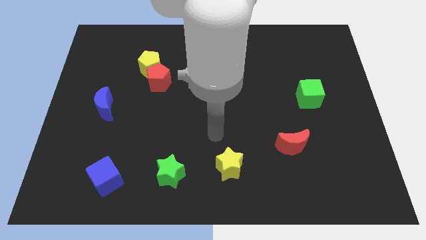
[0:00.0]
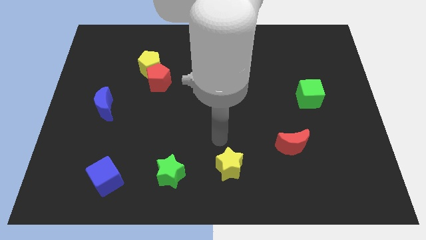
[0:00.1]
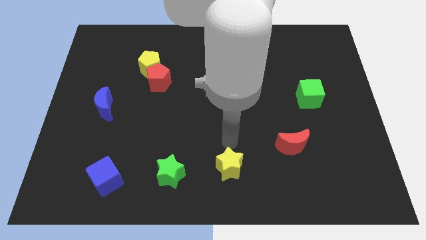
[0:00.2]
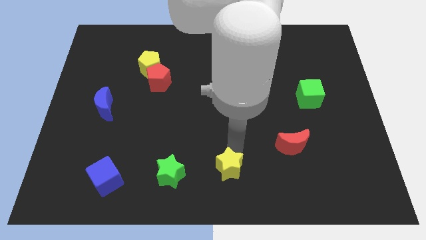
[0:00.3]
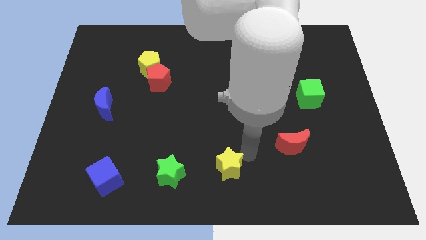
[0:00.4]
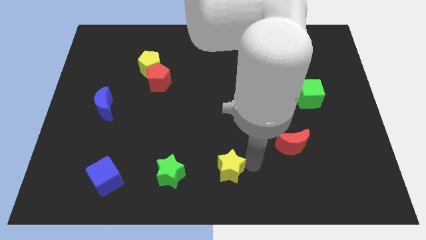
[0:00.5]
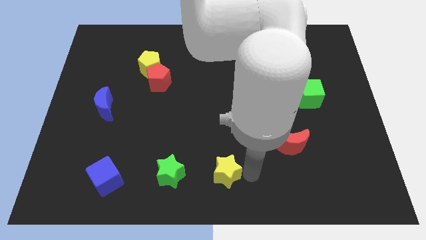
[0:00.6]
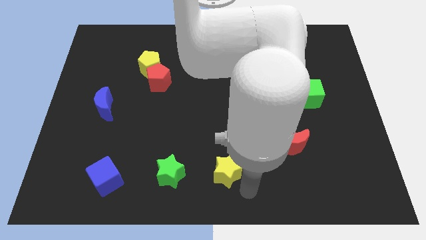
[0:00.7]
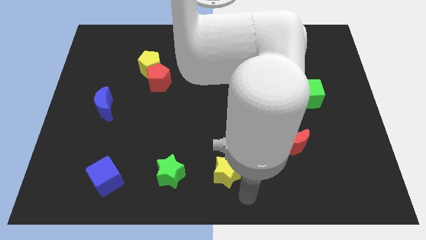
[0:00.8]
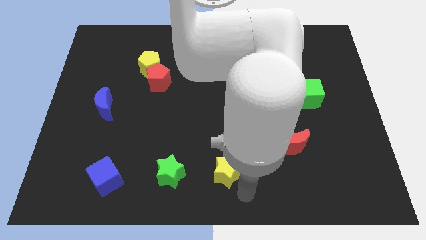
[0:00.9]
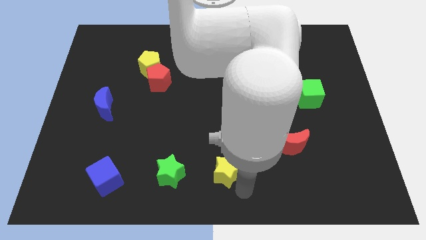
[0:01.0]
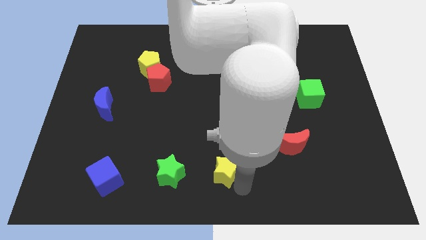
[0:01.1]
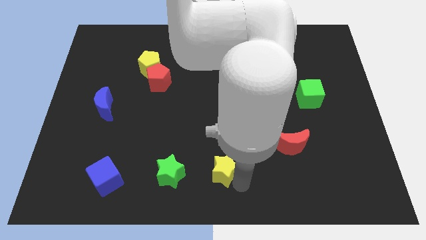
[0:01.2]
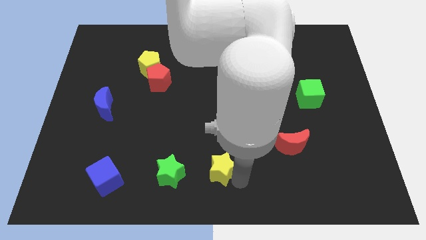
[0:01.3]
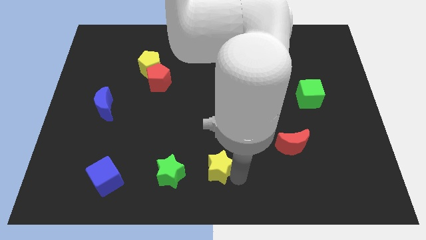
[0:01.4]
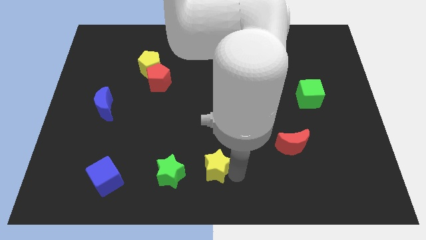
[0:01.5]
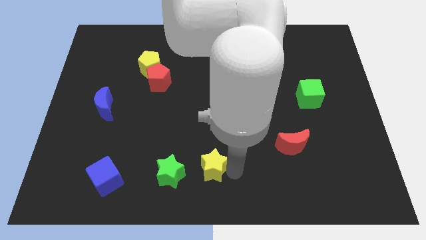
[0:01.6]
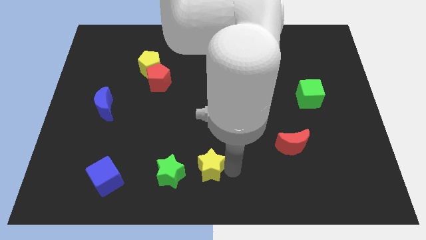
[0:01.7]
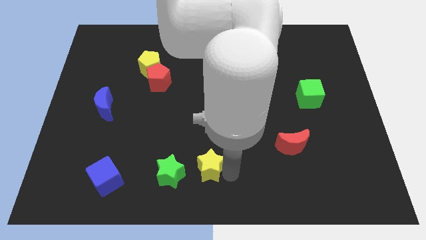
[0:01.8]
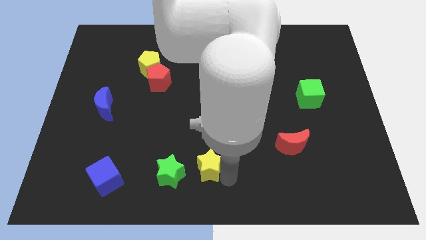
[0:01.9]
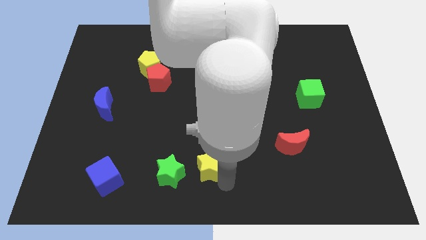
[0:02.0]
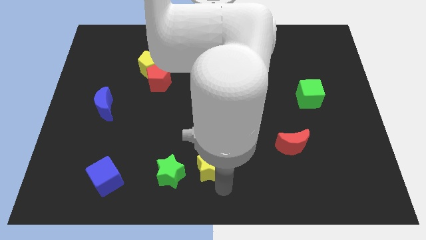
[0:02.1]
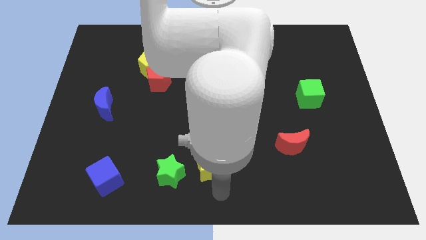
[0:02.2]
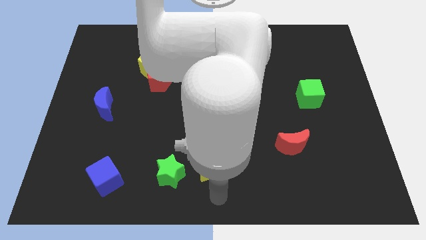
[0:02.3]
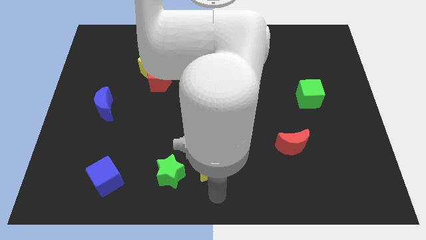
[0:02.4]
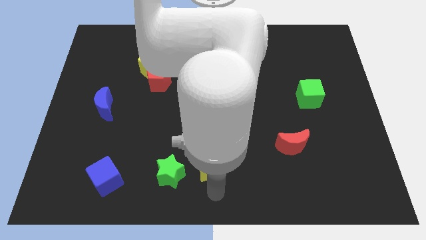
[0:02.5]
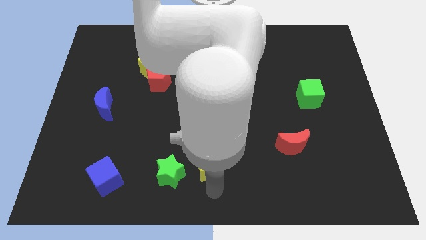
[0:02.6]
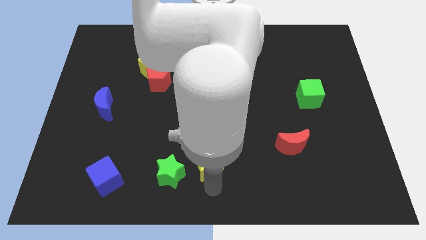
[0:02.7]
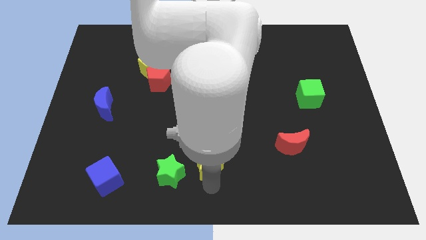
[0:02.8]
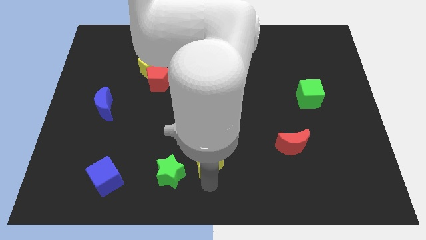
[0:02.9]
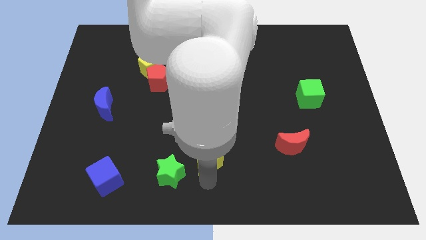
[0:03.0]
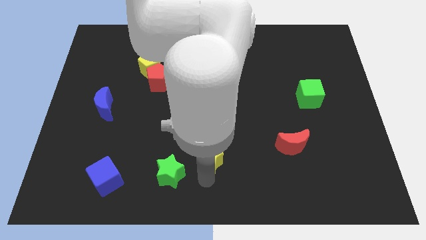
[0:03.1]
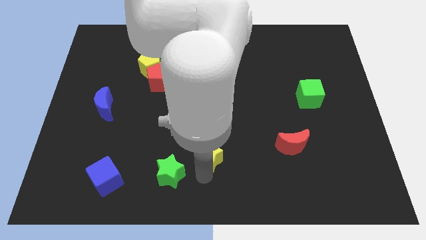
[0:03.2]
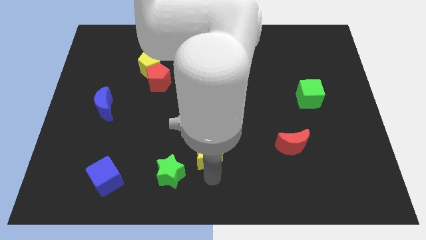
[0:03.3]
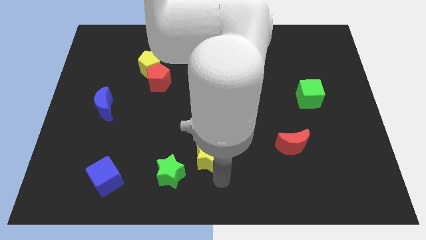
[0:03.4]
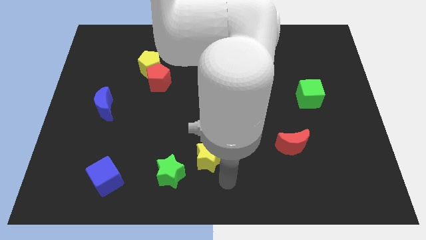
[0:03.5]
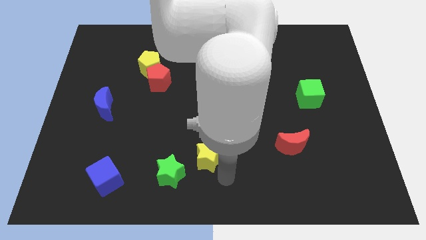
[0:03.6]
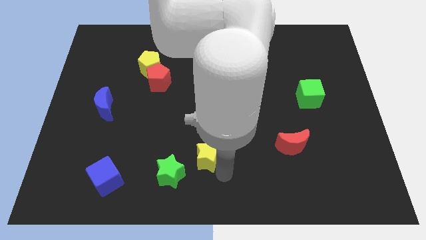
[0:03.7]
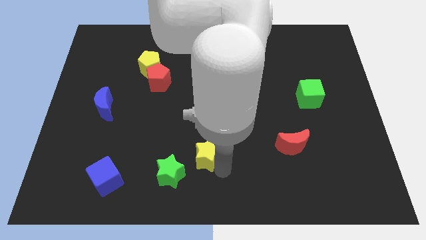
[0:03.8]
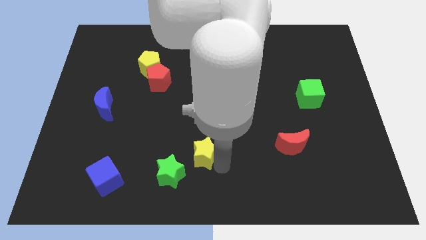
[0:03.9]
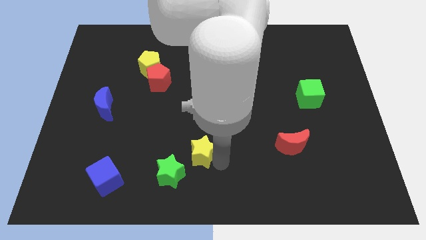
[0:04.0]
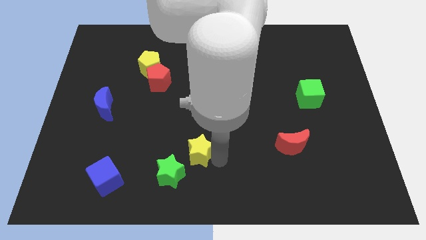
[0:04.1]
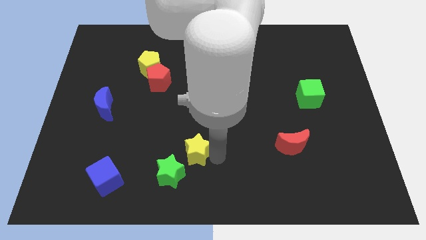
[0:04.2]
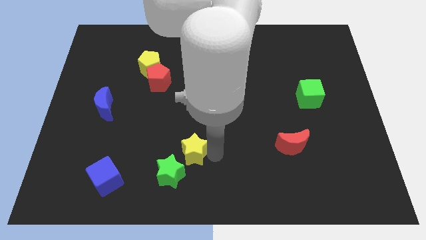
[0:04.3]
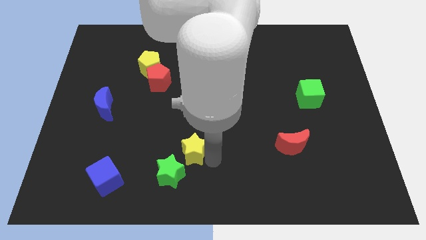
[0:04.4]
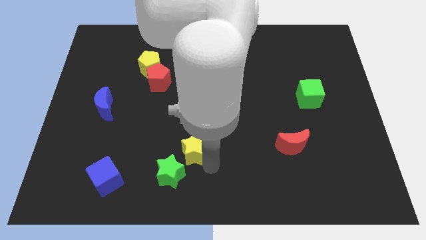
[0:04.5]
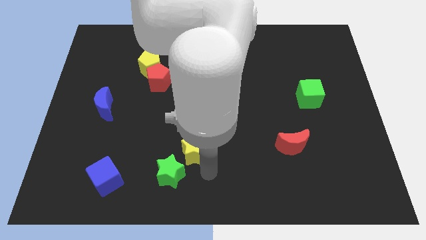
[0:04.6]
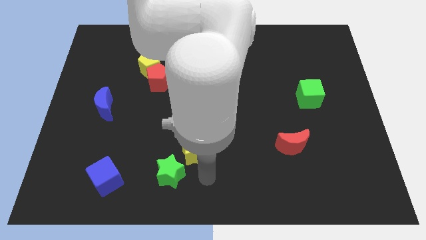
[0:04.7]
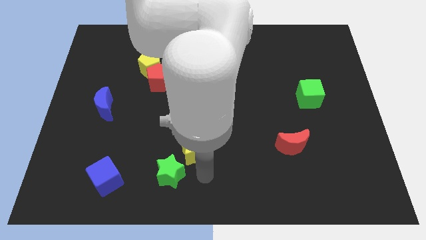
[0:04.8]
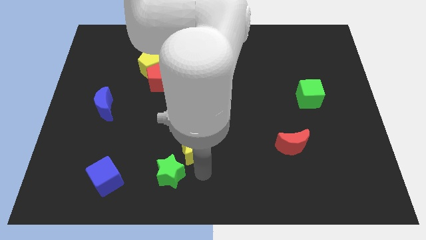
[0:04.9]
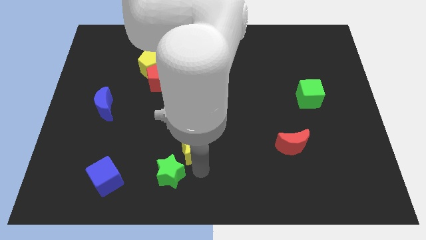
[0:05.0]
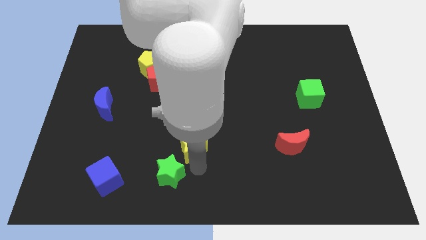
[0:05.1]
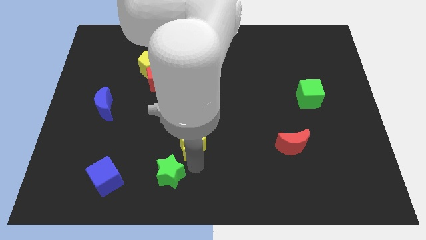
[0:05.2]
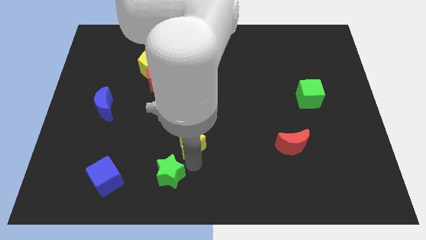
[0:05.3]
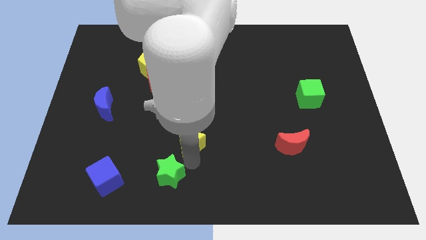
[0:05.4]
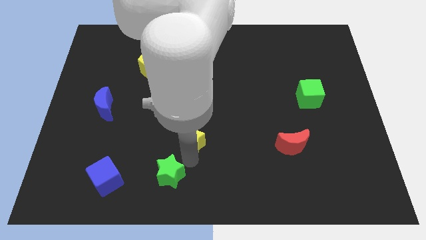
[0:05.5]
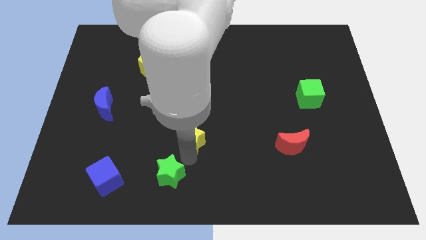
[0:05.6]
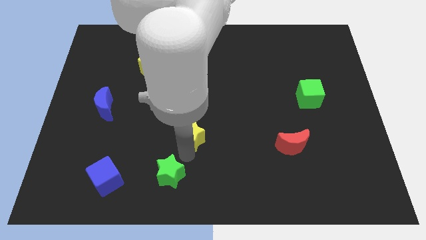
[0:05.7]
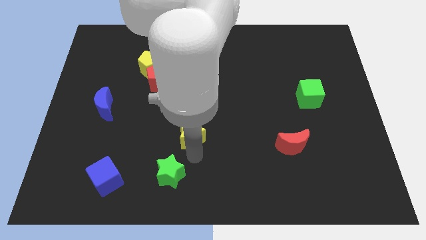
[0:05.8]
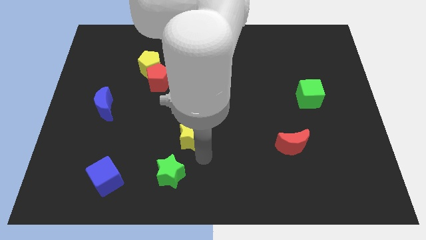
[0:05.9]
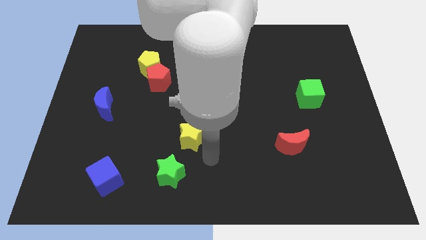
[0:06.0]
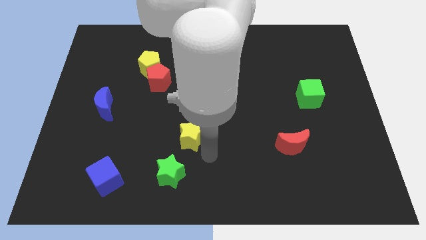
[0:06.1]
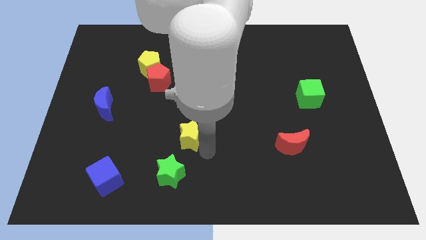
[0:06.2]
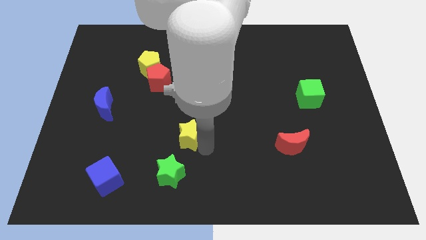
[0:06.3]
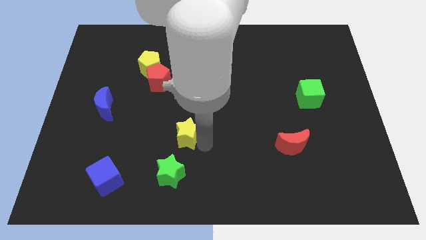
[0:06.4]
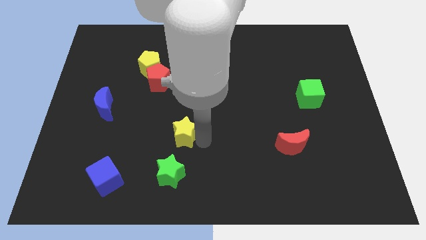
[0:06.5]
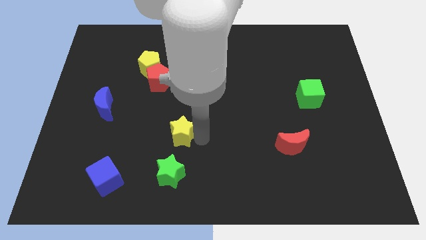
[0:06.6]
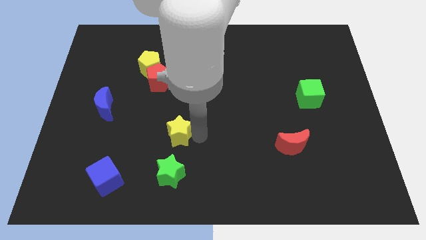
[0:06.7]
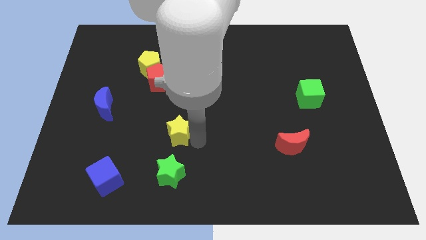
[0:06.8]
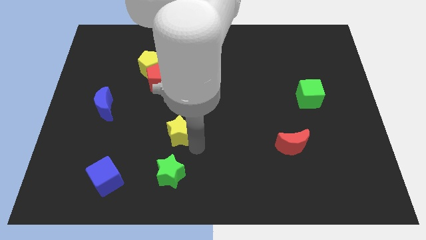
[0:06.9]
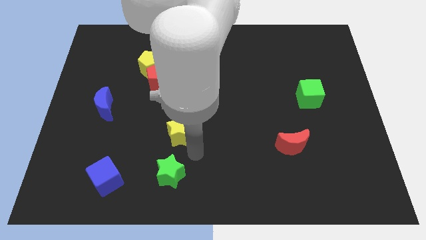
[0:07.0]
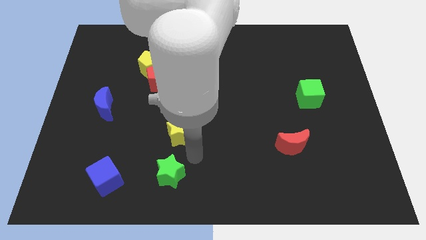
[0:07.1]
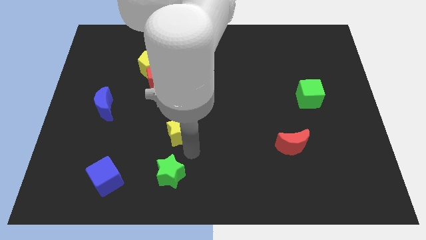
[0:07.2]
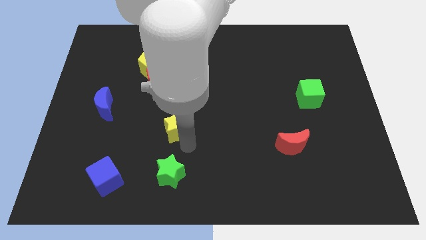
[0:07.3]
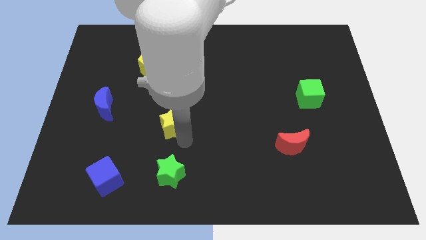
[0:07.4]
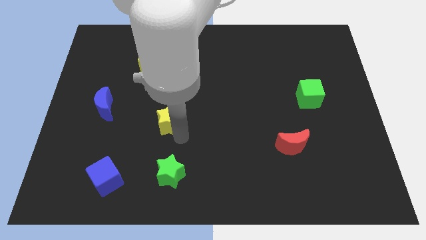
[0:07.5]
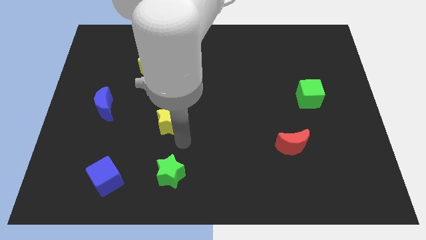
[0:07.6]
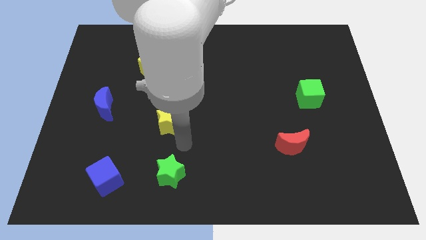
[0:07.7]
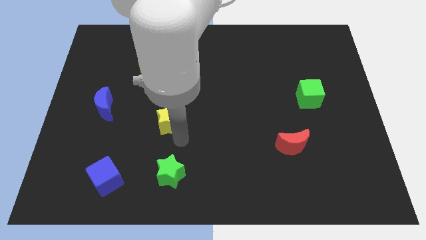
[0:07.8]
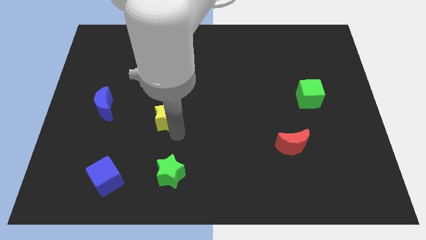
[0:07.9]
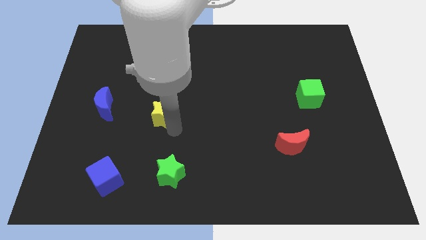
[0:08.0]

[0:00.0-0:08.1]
push the yellow star upwards and to the left

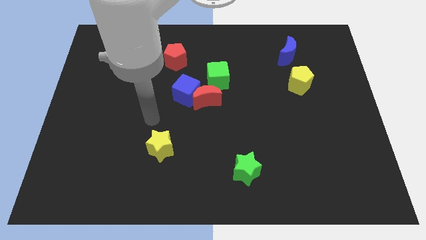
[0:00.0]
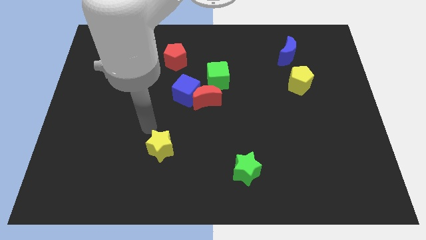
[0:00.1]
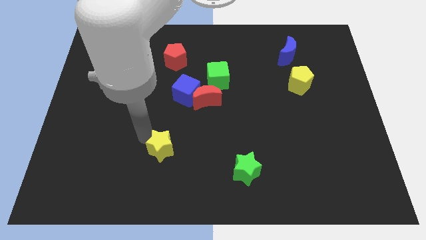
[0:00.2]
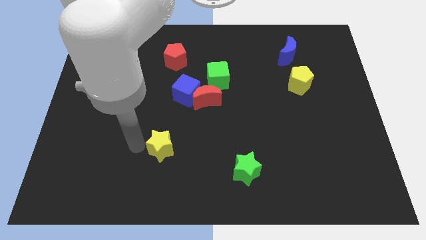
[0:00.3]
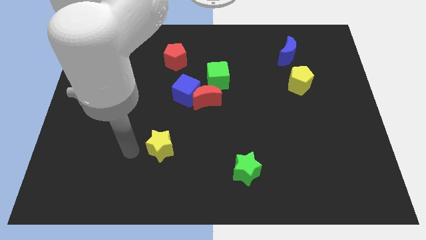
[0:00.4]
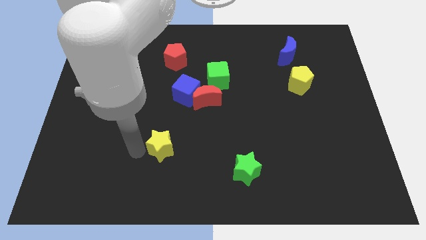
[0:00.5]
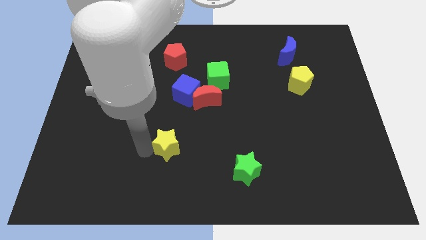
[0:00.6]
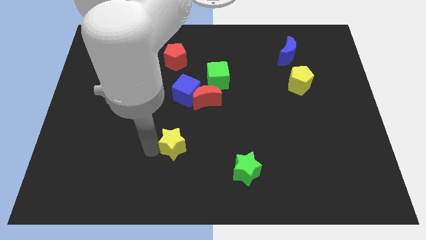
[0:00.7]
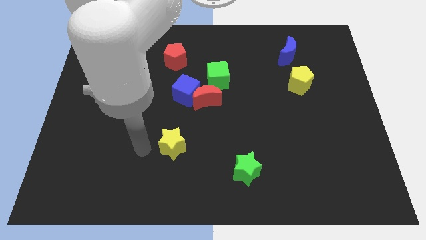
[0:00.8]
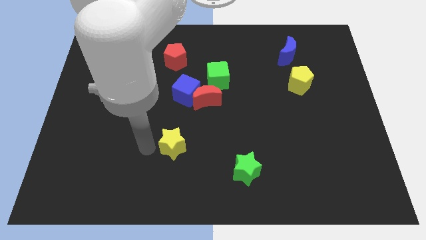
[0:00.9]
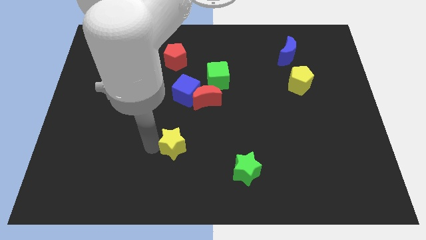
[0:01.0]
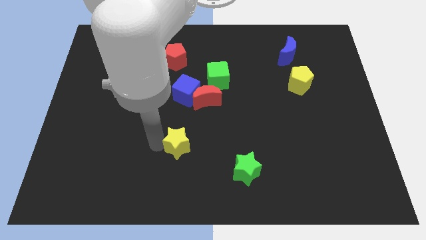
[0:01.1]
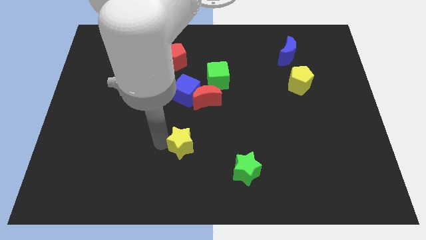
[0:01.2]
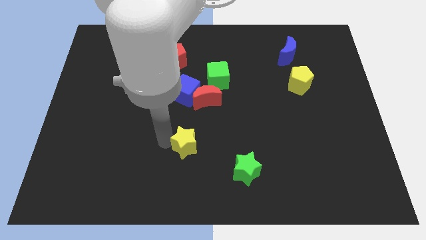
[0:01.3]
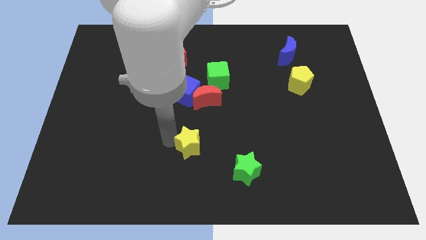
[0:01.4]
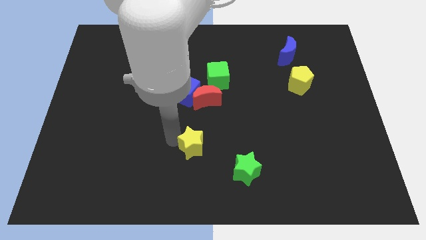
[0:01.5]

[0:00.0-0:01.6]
move the yellow star right a little bit
